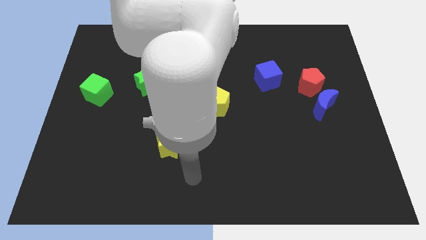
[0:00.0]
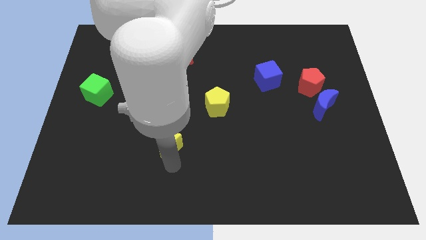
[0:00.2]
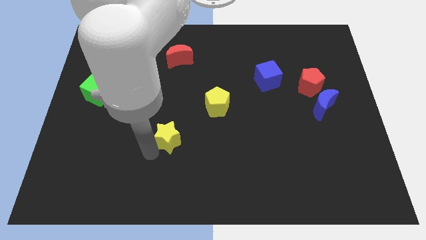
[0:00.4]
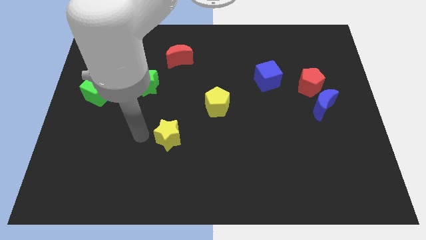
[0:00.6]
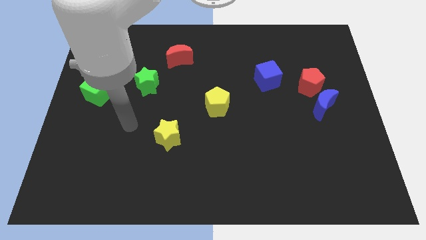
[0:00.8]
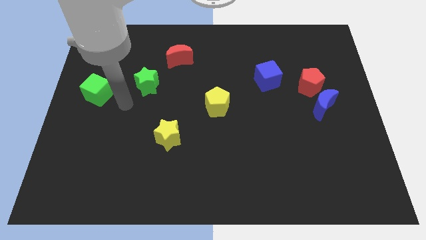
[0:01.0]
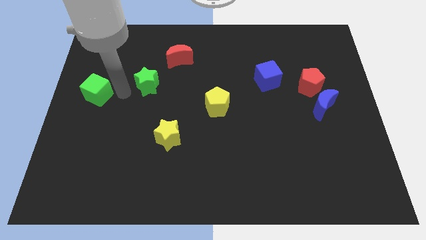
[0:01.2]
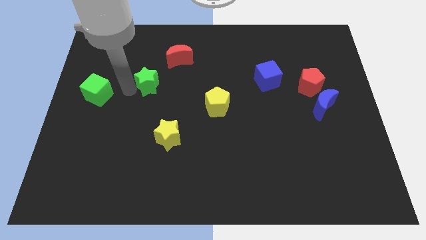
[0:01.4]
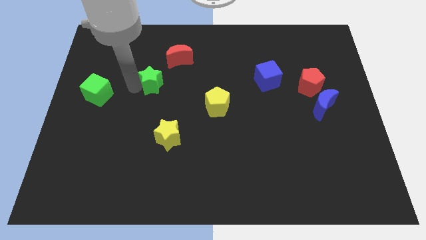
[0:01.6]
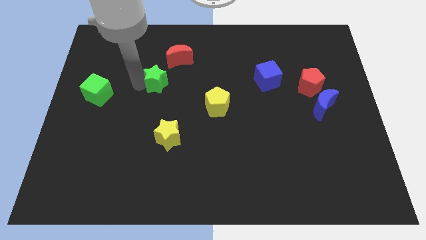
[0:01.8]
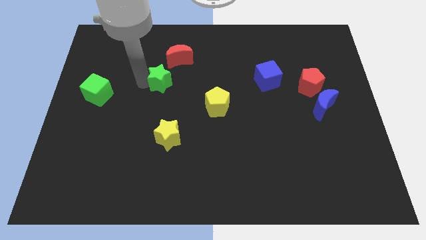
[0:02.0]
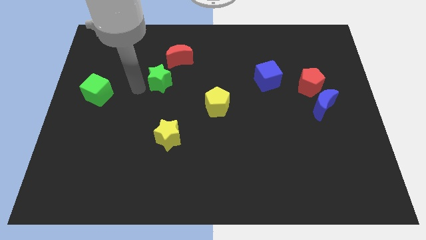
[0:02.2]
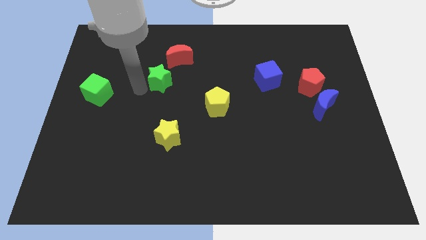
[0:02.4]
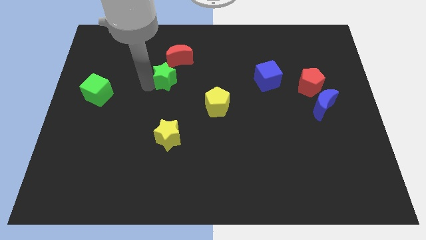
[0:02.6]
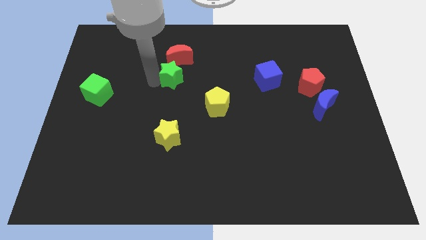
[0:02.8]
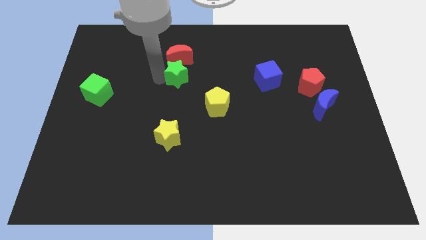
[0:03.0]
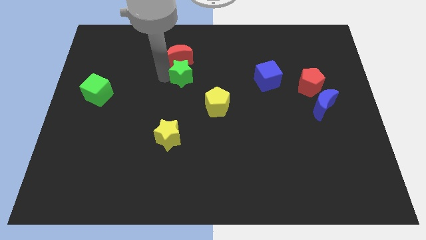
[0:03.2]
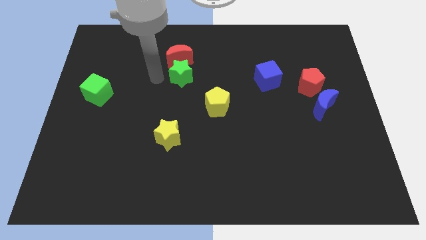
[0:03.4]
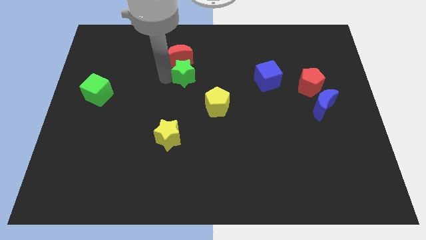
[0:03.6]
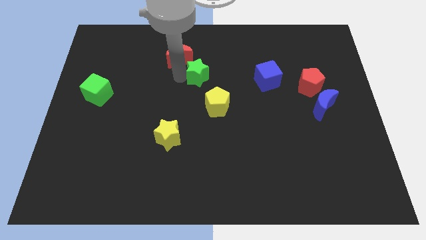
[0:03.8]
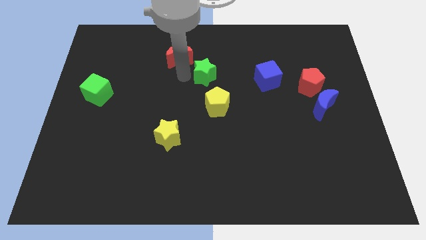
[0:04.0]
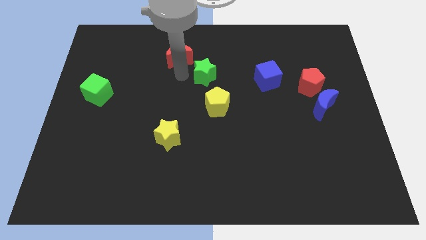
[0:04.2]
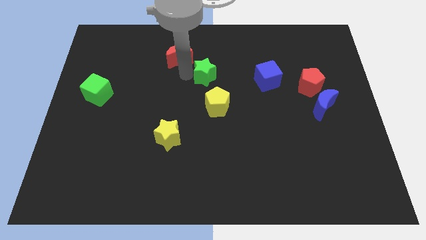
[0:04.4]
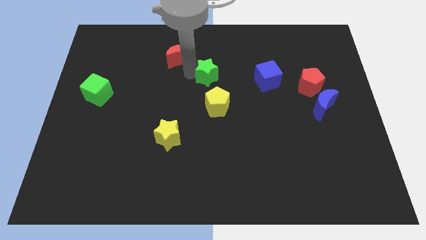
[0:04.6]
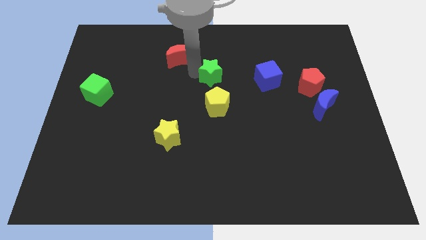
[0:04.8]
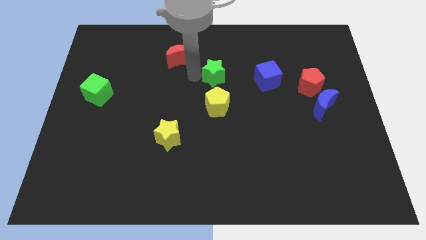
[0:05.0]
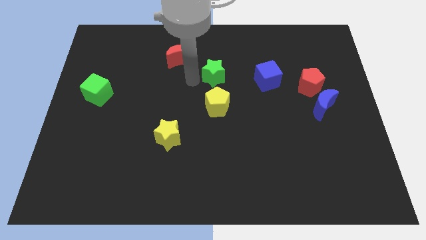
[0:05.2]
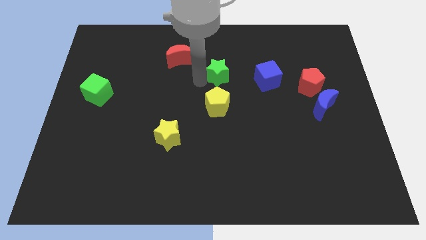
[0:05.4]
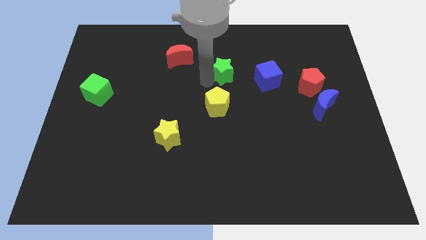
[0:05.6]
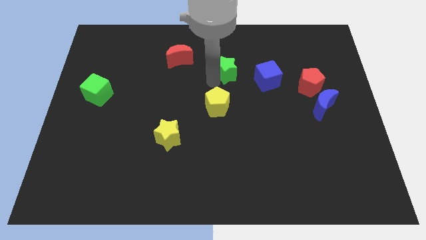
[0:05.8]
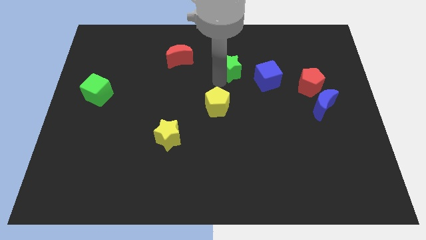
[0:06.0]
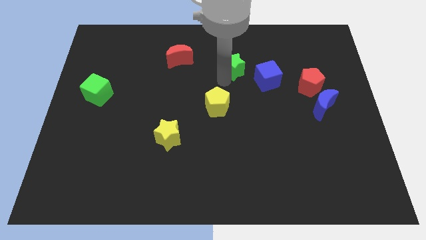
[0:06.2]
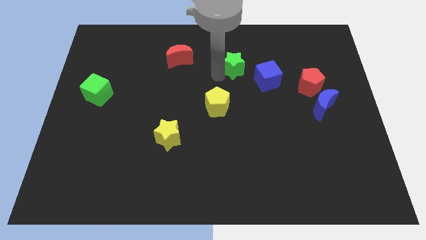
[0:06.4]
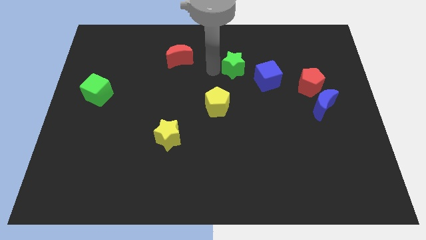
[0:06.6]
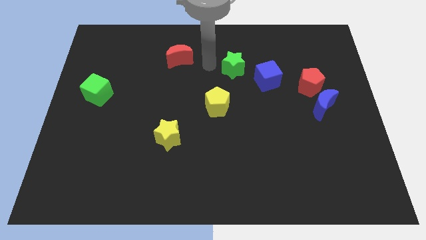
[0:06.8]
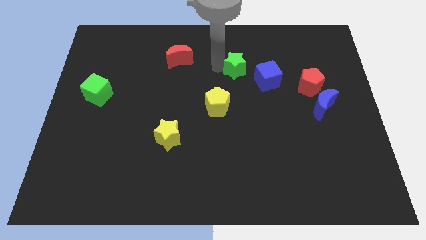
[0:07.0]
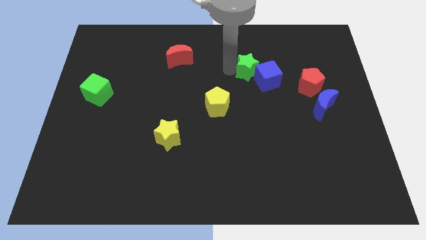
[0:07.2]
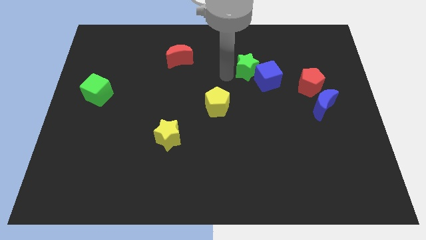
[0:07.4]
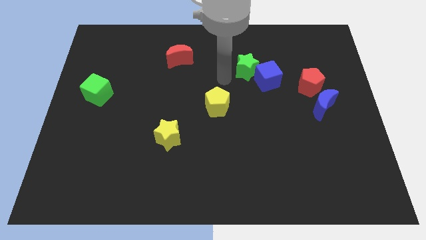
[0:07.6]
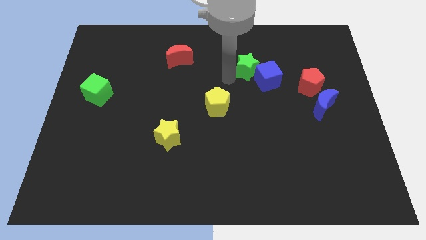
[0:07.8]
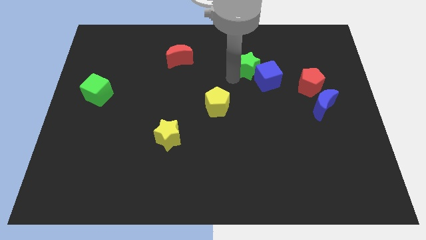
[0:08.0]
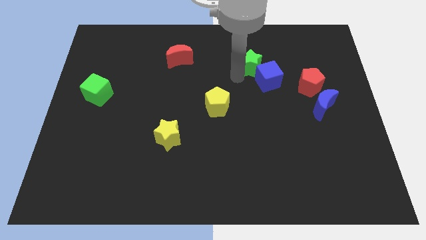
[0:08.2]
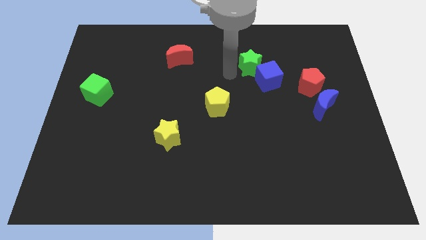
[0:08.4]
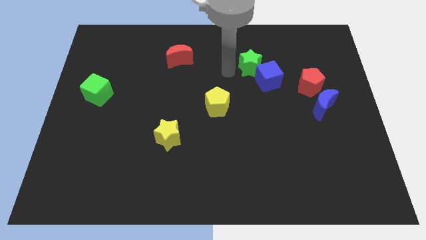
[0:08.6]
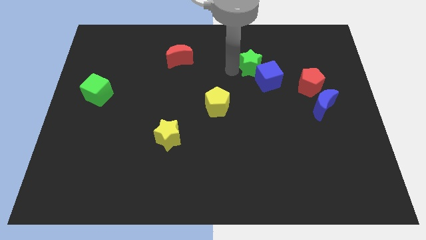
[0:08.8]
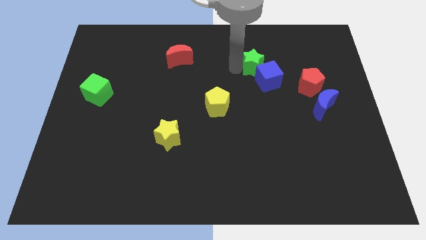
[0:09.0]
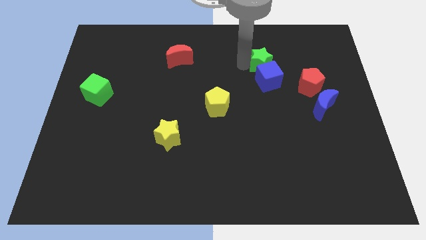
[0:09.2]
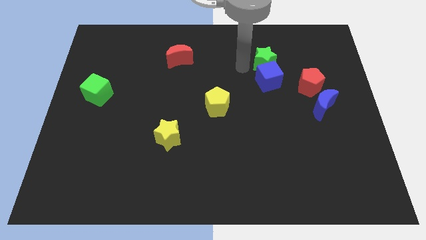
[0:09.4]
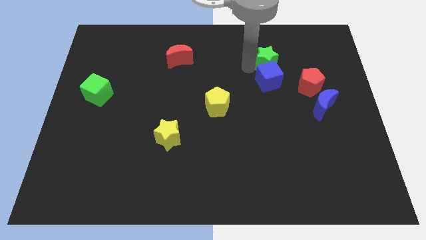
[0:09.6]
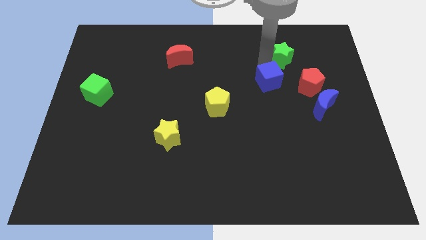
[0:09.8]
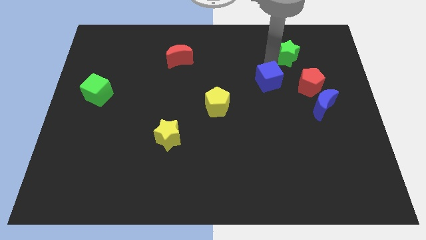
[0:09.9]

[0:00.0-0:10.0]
move the green star to the top side of the red pentagon

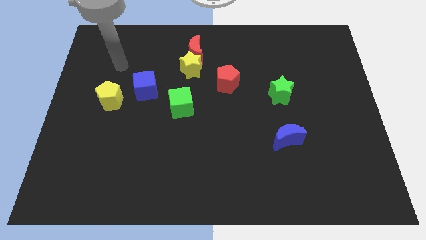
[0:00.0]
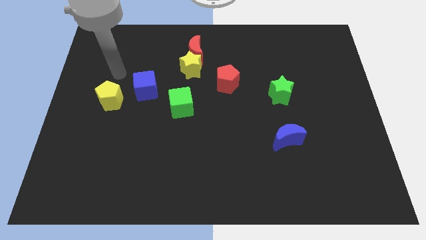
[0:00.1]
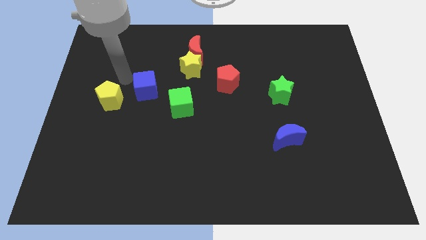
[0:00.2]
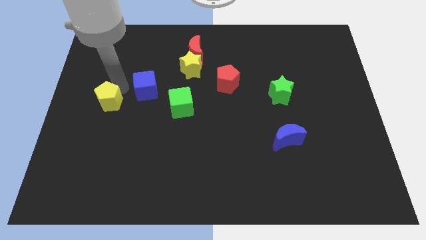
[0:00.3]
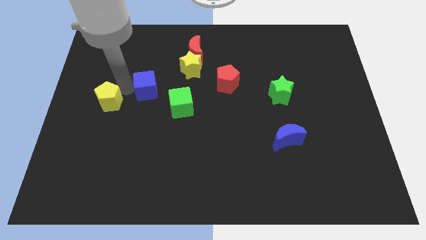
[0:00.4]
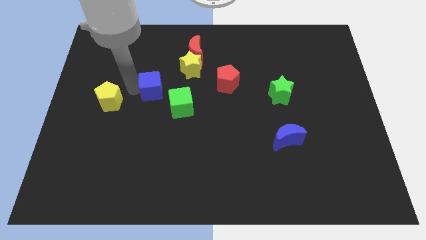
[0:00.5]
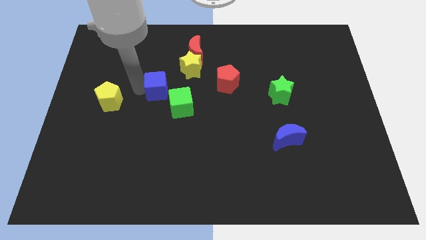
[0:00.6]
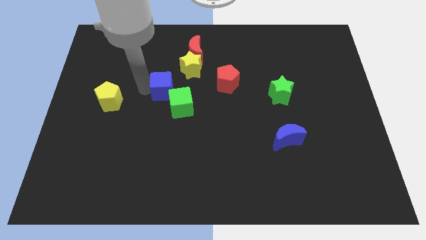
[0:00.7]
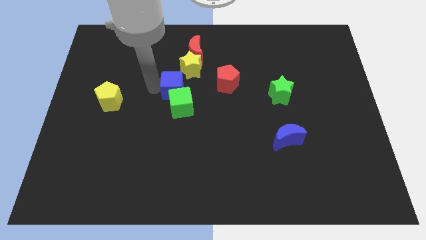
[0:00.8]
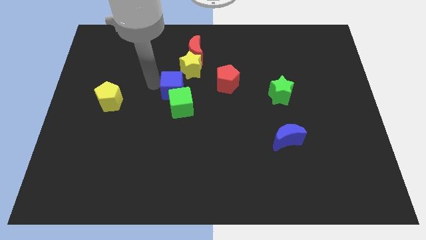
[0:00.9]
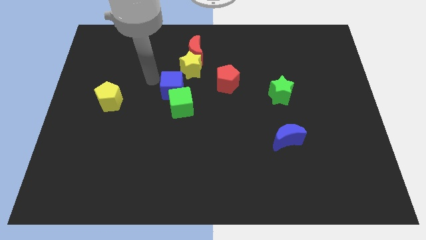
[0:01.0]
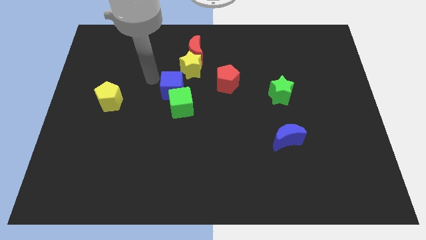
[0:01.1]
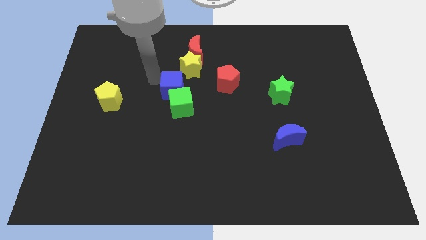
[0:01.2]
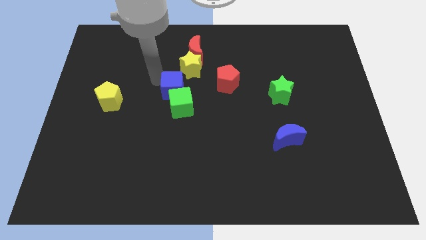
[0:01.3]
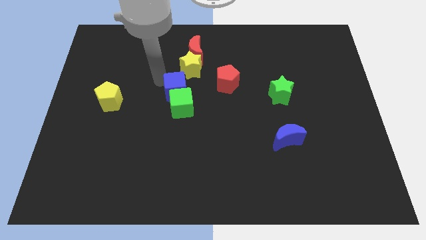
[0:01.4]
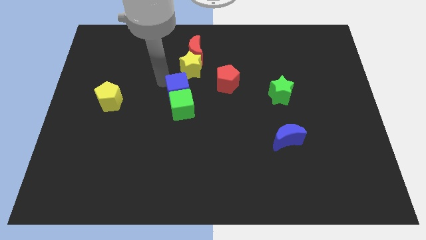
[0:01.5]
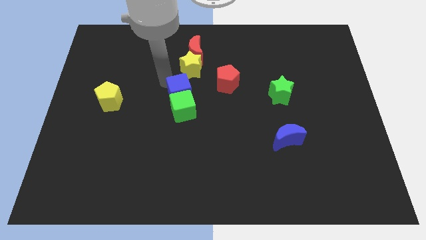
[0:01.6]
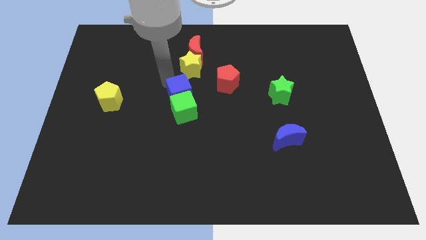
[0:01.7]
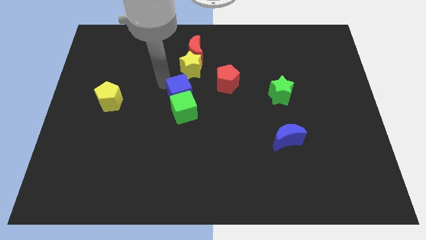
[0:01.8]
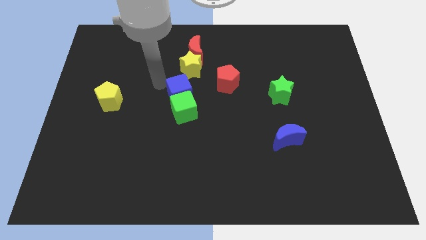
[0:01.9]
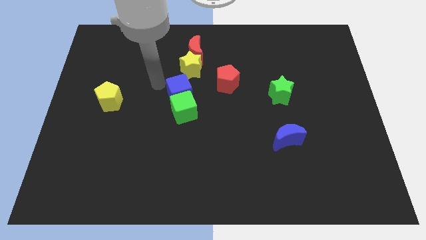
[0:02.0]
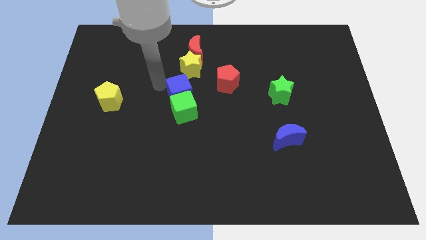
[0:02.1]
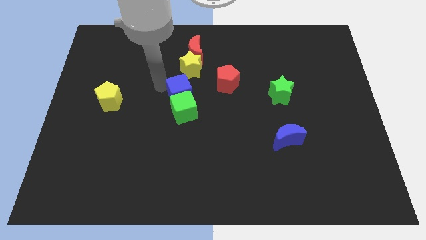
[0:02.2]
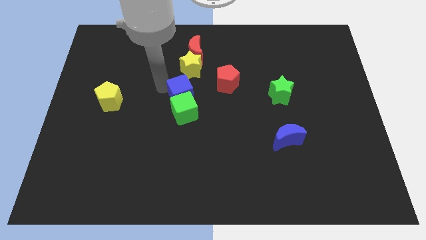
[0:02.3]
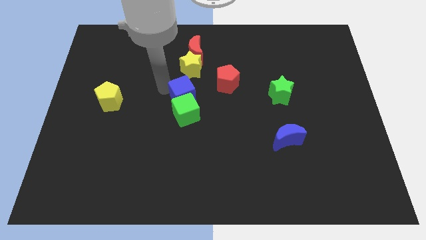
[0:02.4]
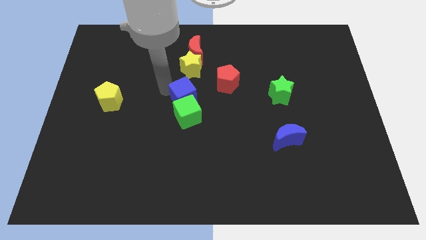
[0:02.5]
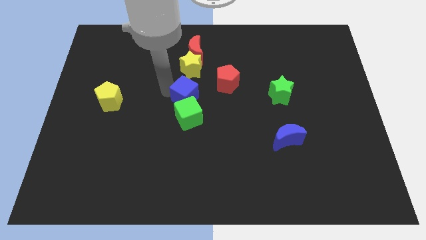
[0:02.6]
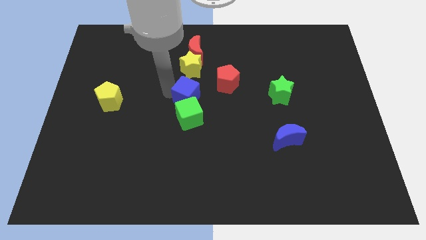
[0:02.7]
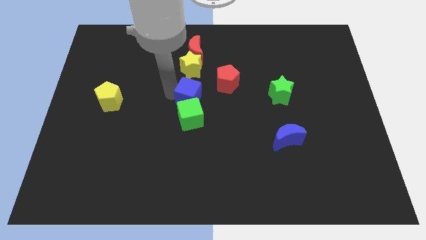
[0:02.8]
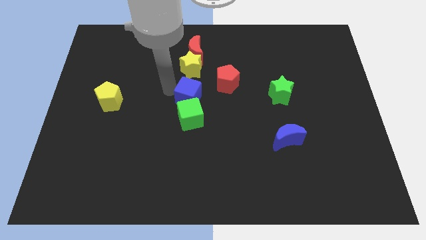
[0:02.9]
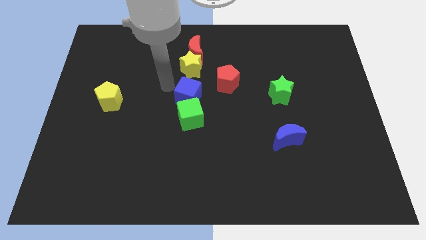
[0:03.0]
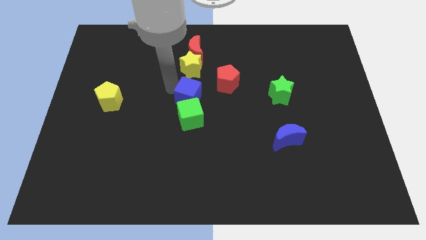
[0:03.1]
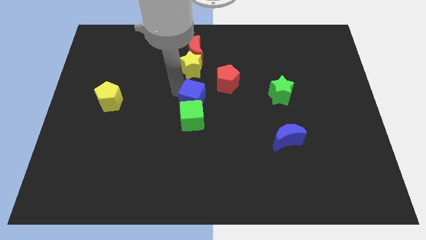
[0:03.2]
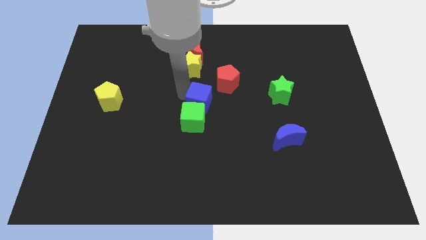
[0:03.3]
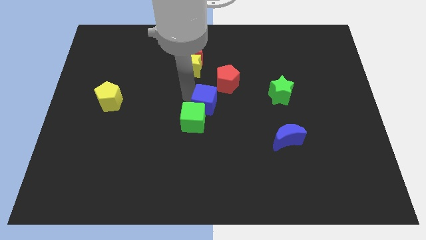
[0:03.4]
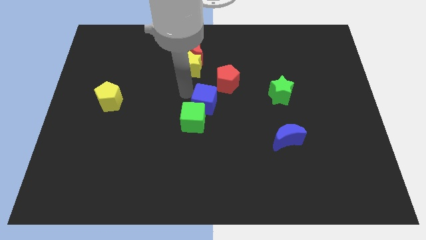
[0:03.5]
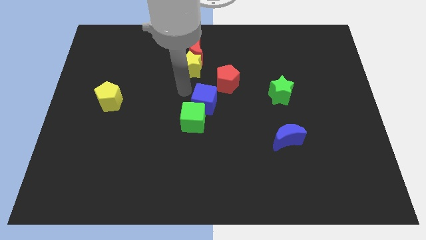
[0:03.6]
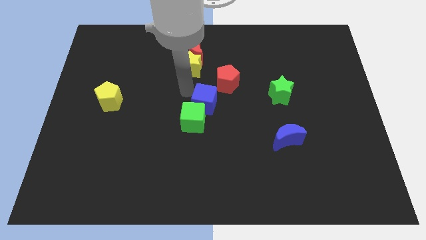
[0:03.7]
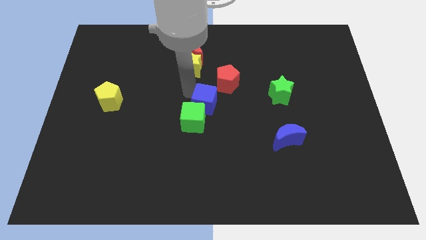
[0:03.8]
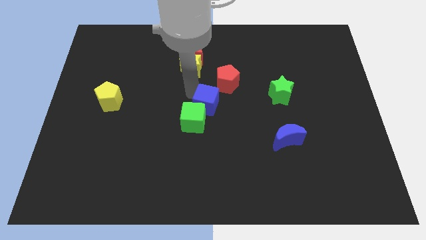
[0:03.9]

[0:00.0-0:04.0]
push the blue cube below the red pentagon
